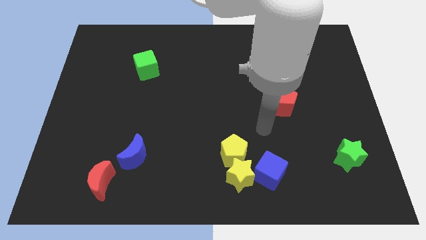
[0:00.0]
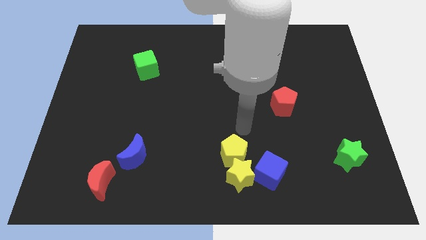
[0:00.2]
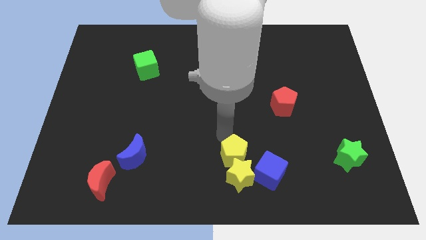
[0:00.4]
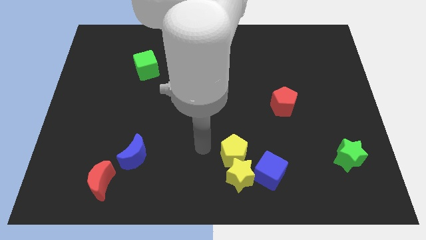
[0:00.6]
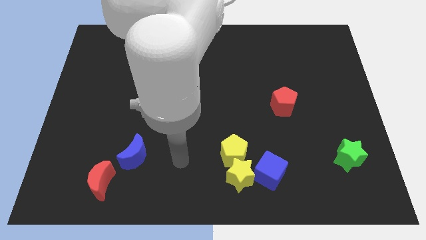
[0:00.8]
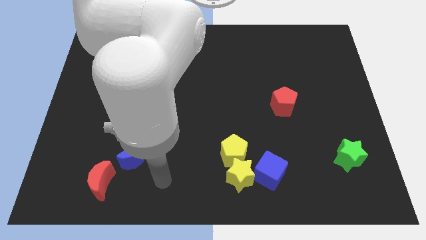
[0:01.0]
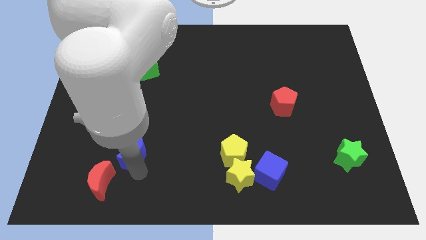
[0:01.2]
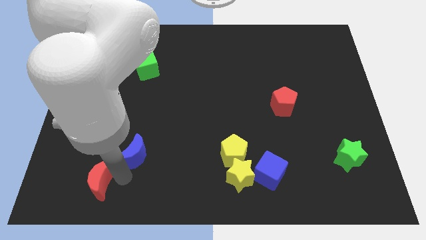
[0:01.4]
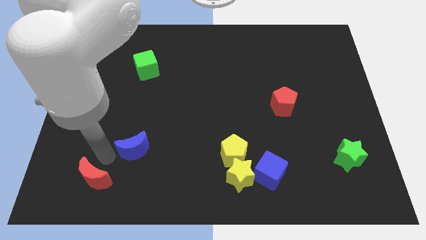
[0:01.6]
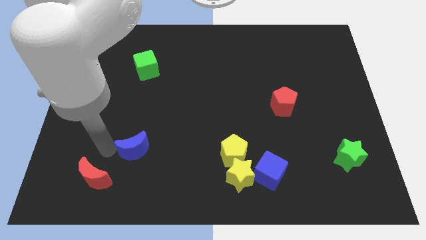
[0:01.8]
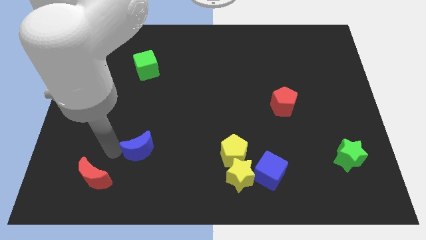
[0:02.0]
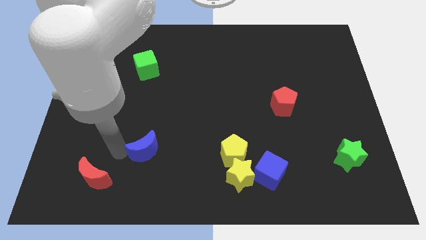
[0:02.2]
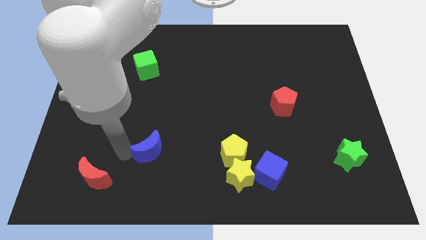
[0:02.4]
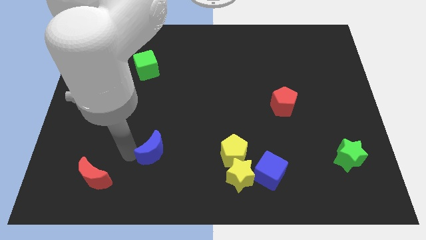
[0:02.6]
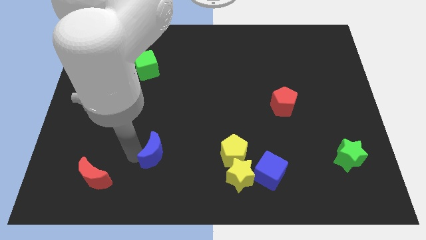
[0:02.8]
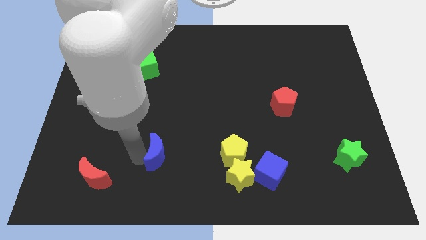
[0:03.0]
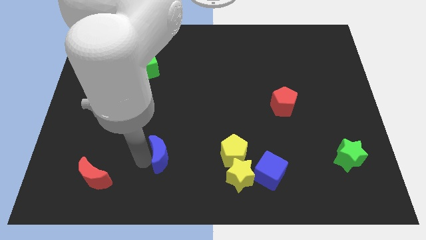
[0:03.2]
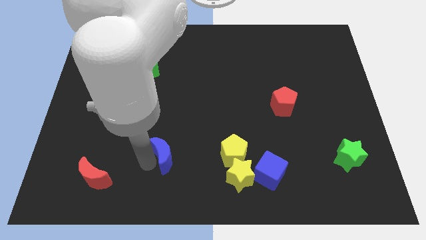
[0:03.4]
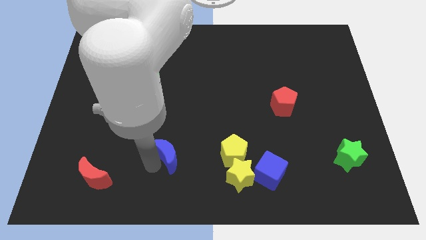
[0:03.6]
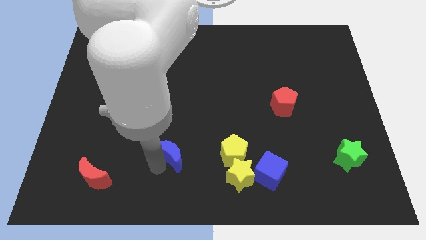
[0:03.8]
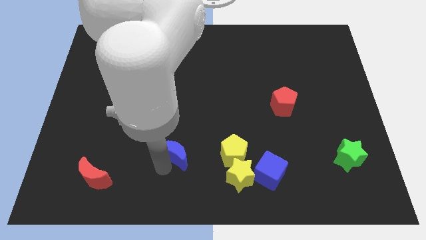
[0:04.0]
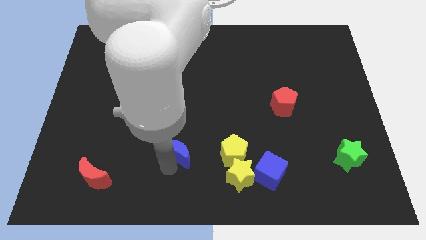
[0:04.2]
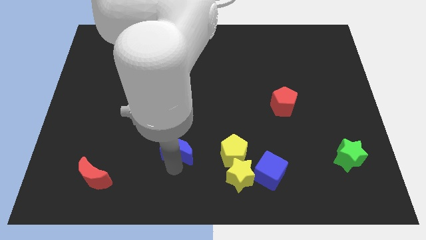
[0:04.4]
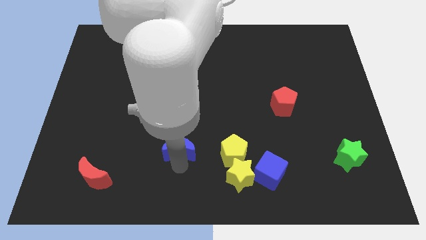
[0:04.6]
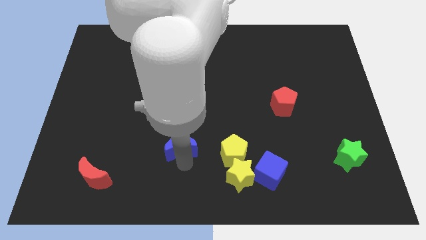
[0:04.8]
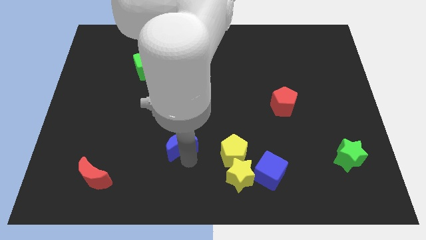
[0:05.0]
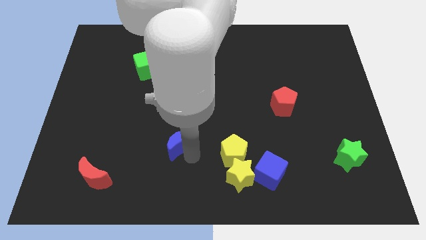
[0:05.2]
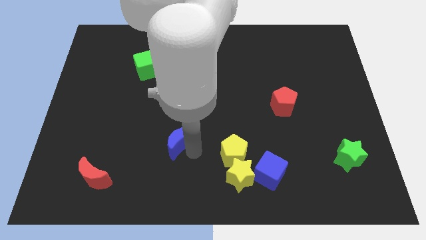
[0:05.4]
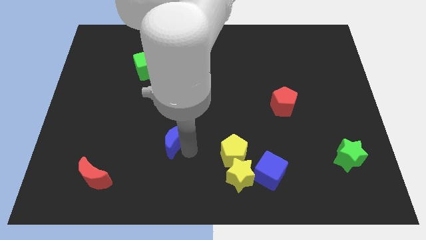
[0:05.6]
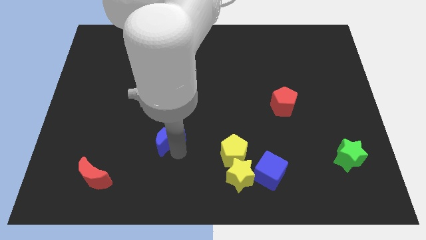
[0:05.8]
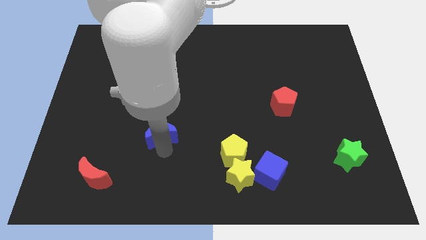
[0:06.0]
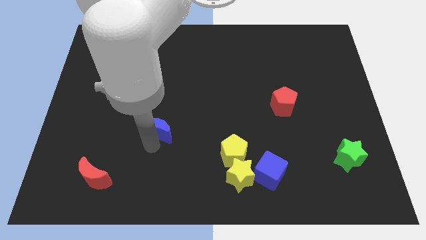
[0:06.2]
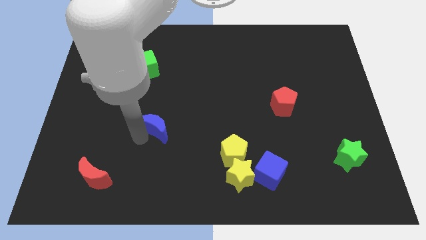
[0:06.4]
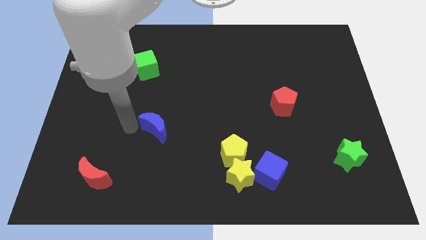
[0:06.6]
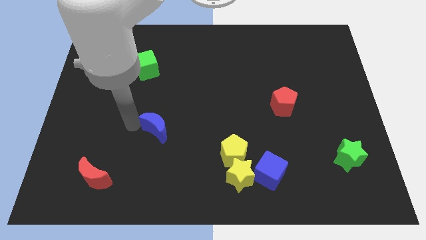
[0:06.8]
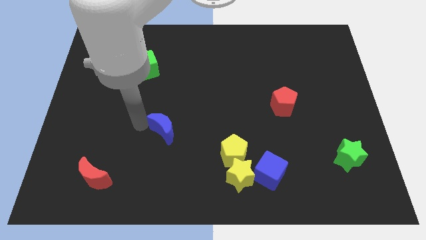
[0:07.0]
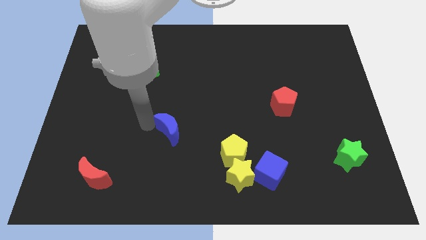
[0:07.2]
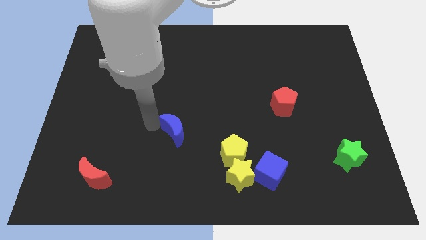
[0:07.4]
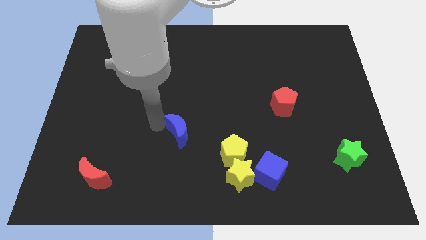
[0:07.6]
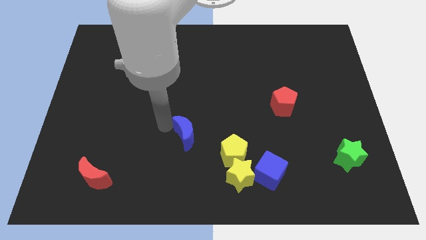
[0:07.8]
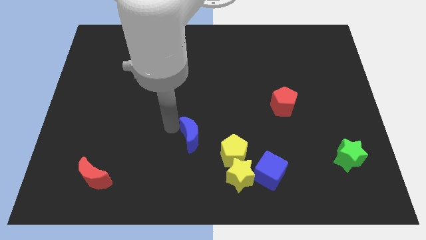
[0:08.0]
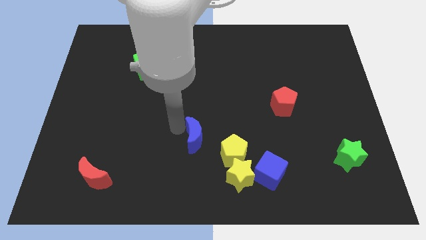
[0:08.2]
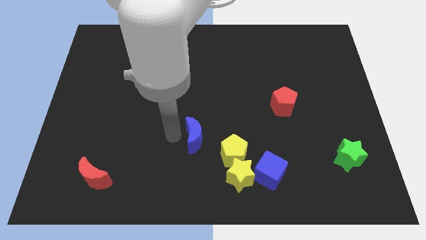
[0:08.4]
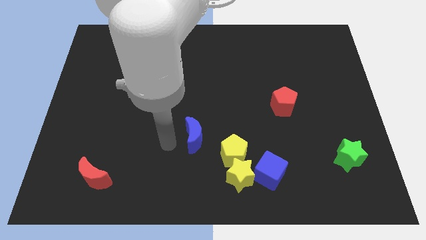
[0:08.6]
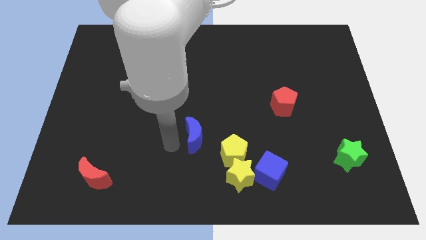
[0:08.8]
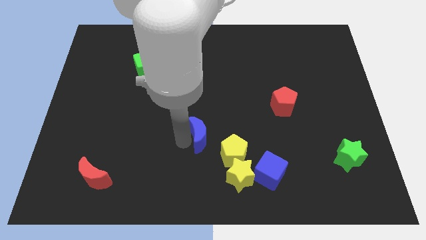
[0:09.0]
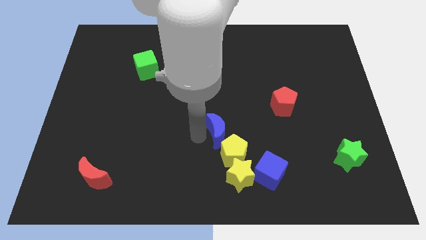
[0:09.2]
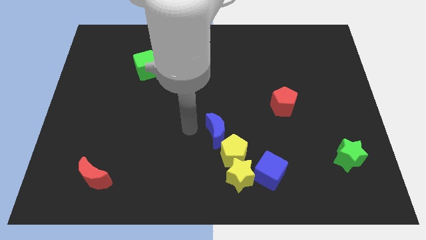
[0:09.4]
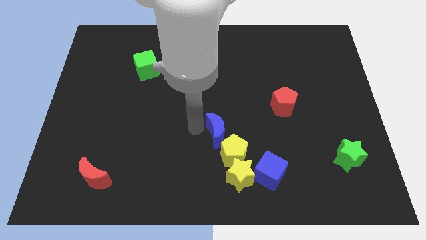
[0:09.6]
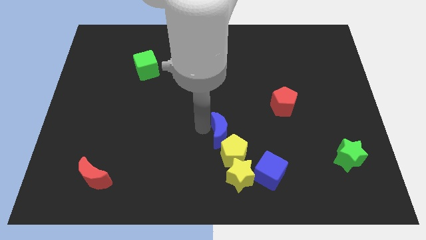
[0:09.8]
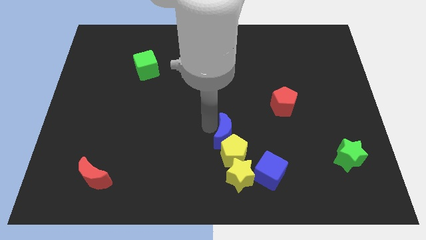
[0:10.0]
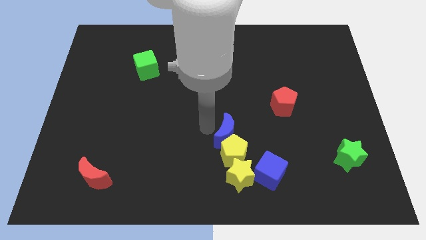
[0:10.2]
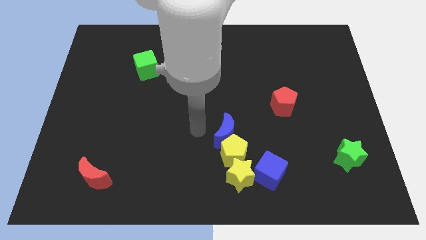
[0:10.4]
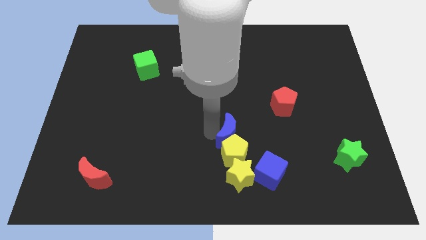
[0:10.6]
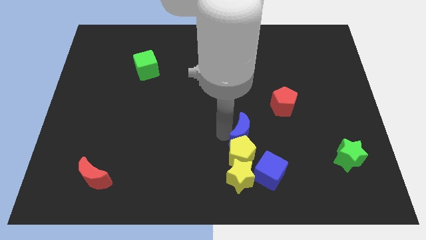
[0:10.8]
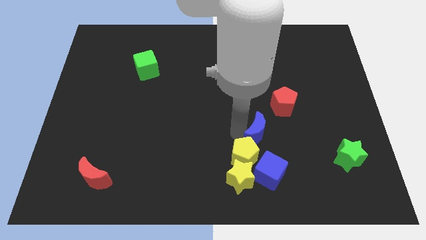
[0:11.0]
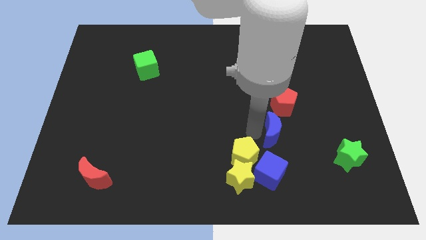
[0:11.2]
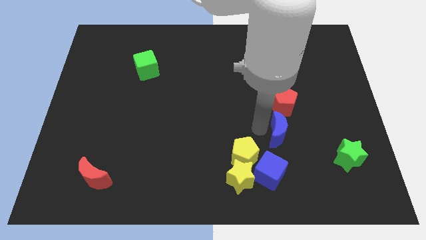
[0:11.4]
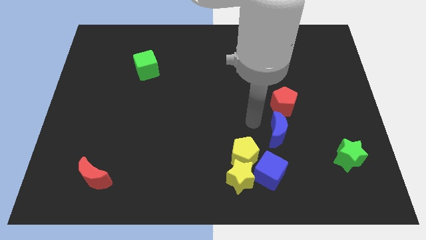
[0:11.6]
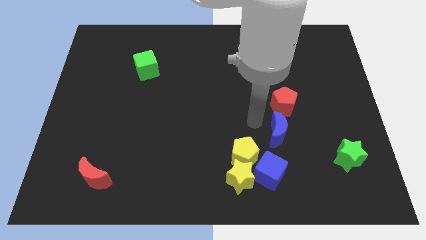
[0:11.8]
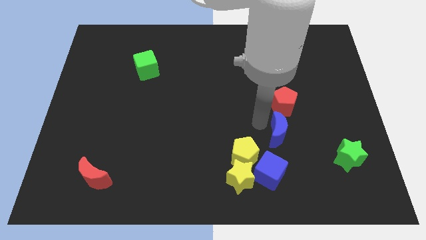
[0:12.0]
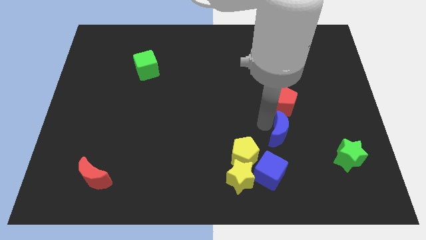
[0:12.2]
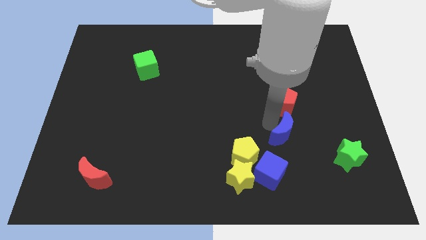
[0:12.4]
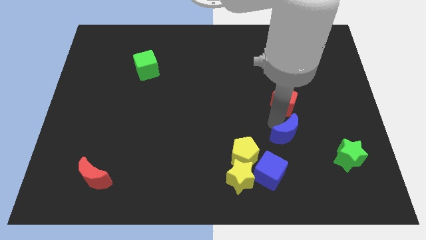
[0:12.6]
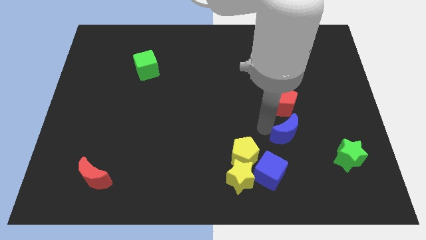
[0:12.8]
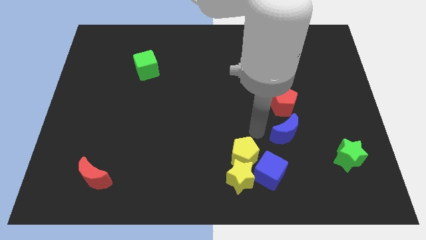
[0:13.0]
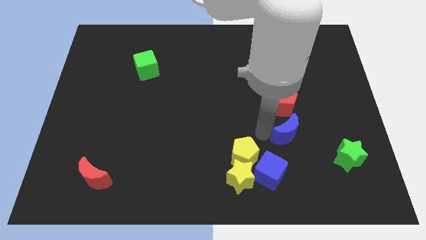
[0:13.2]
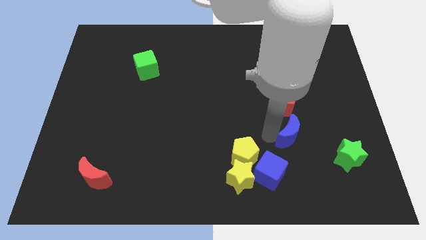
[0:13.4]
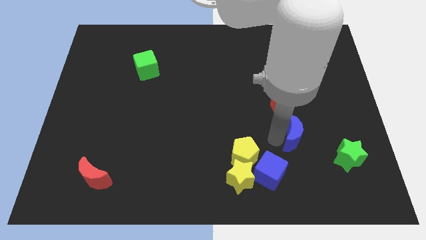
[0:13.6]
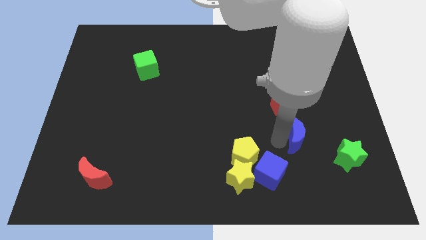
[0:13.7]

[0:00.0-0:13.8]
move the blue moon to the top left side of the green star
